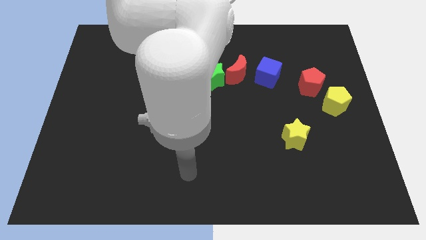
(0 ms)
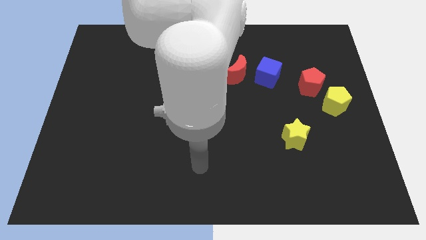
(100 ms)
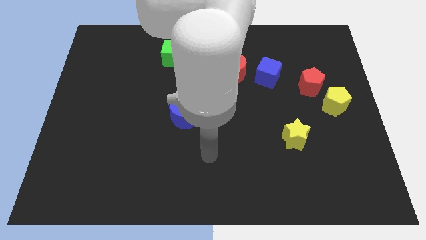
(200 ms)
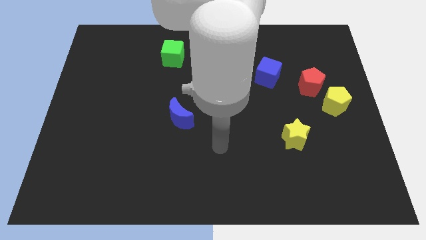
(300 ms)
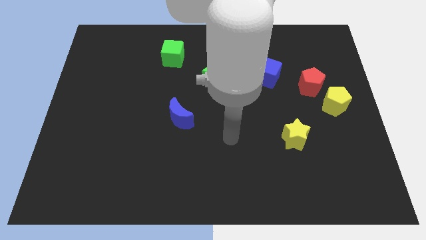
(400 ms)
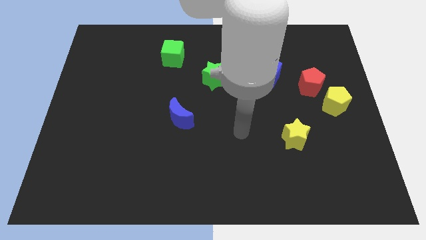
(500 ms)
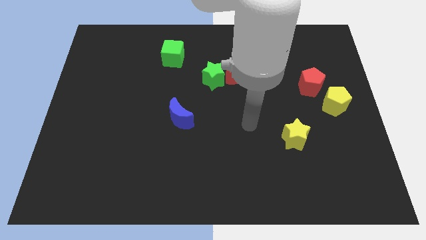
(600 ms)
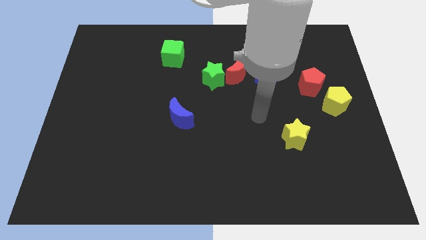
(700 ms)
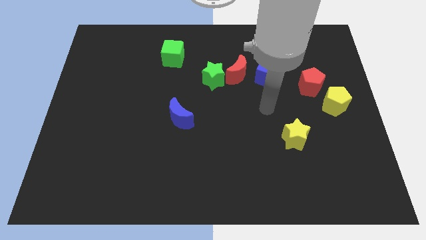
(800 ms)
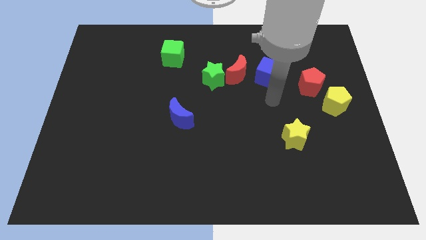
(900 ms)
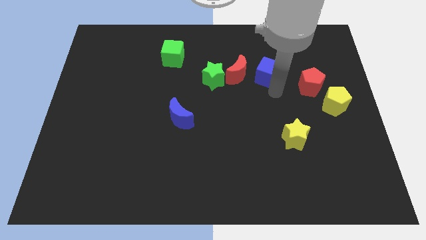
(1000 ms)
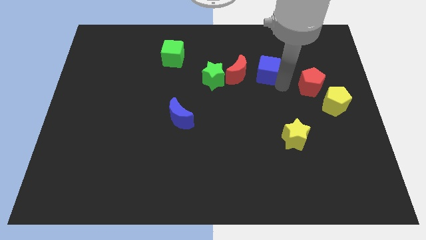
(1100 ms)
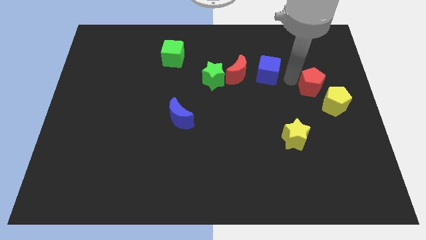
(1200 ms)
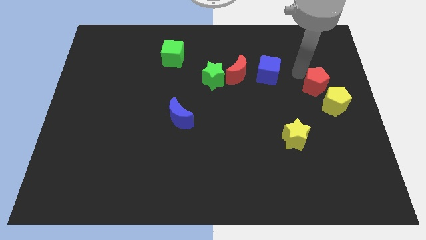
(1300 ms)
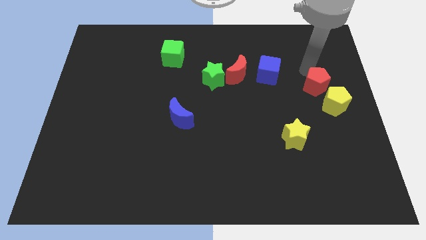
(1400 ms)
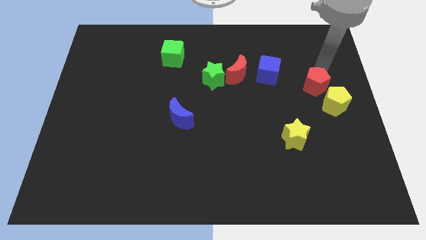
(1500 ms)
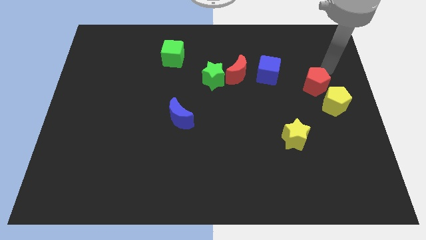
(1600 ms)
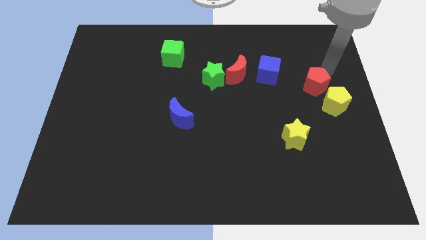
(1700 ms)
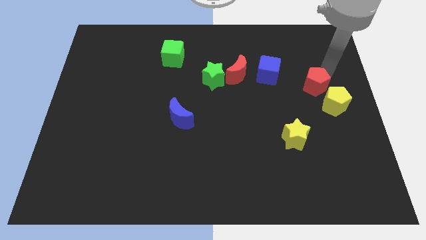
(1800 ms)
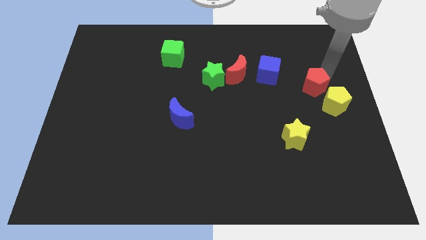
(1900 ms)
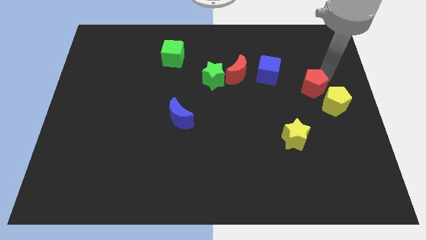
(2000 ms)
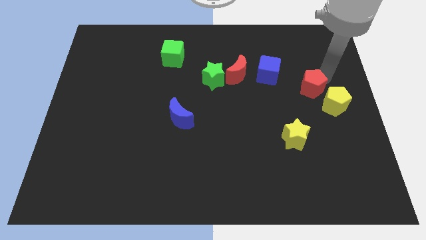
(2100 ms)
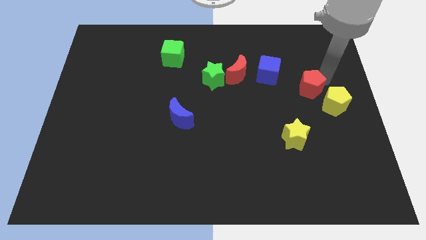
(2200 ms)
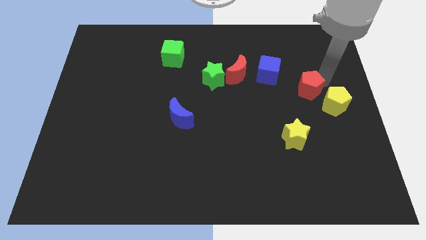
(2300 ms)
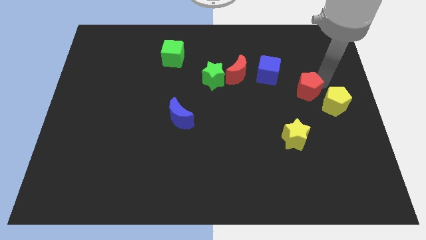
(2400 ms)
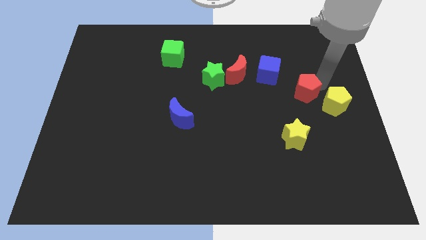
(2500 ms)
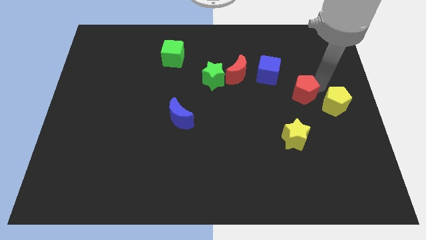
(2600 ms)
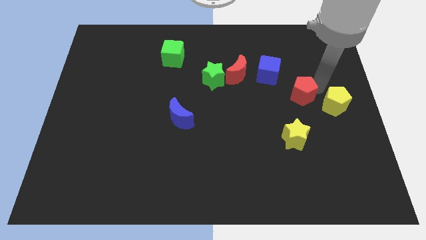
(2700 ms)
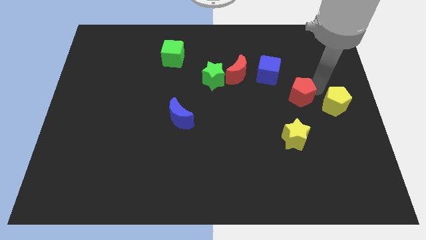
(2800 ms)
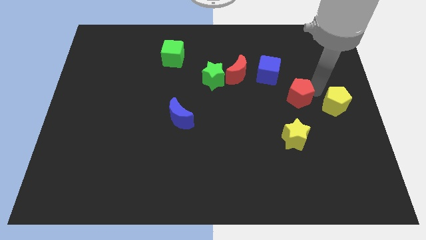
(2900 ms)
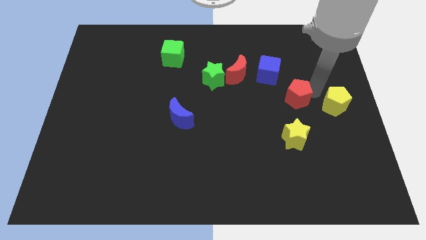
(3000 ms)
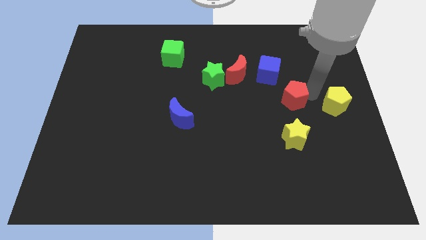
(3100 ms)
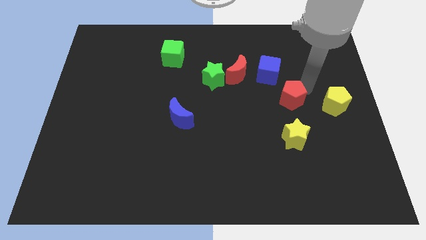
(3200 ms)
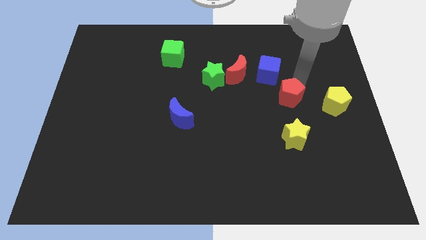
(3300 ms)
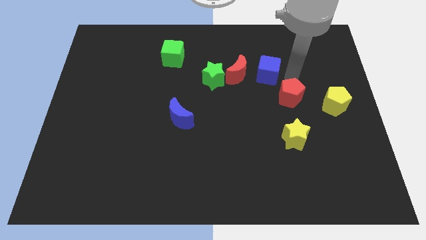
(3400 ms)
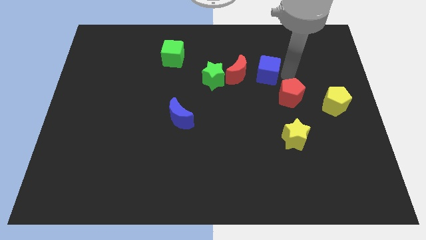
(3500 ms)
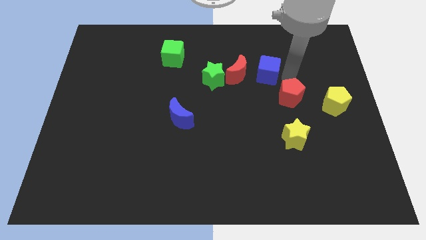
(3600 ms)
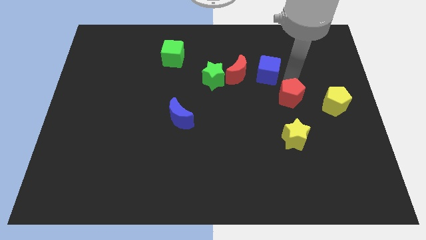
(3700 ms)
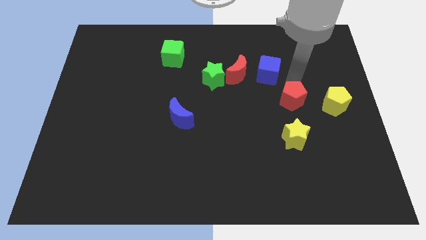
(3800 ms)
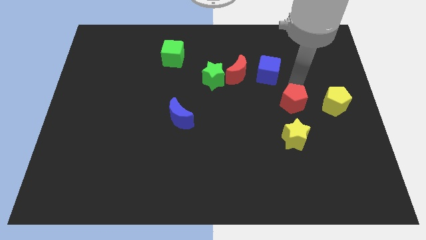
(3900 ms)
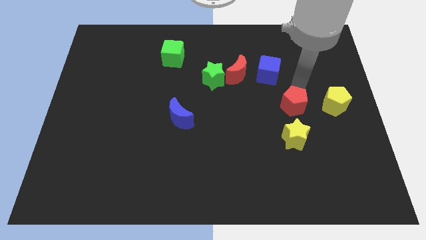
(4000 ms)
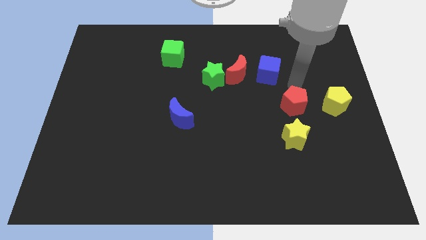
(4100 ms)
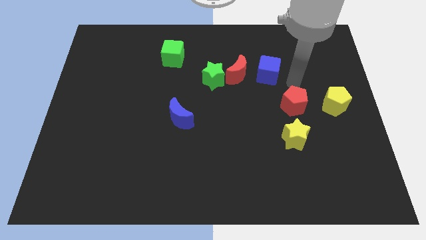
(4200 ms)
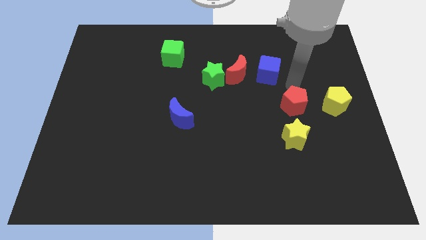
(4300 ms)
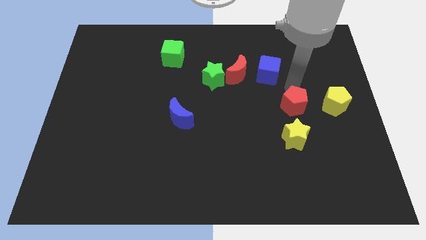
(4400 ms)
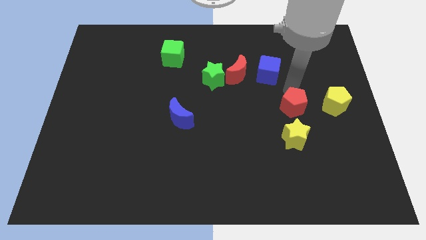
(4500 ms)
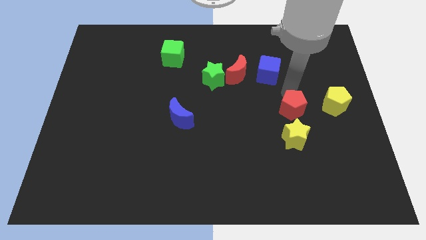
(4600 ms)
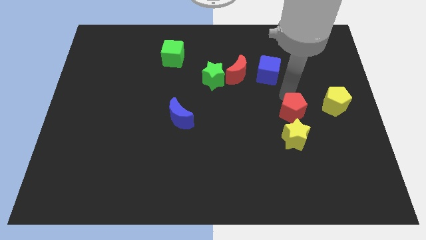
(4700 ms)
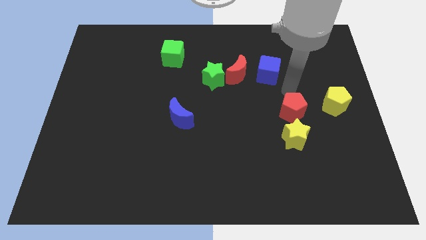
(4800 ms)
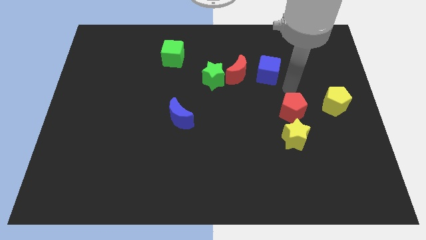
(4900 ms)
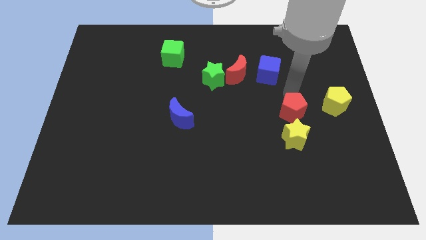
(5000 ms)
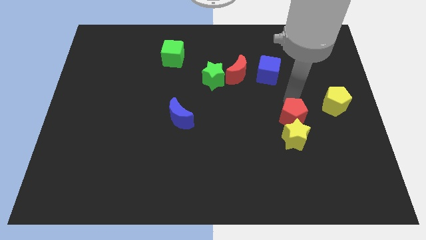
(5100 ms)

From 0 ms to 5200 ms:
move the red pentagon to the yellow star

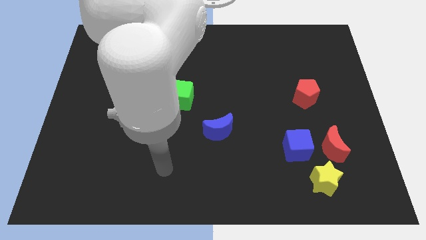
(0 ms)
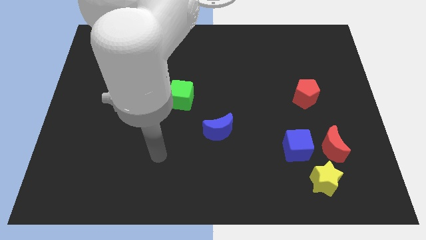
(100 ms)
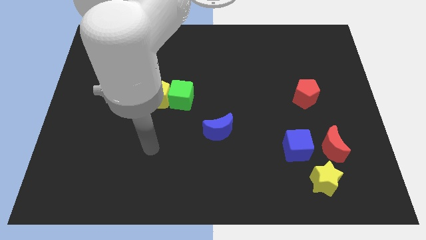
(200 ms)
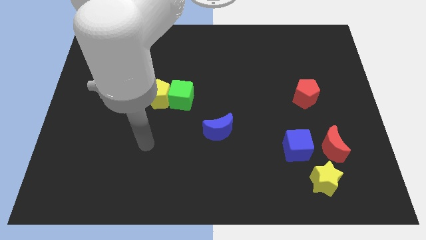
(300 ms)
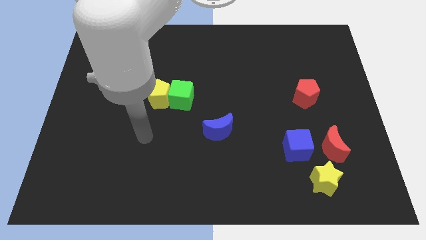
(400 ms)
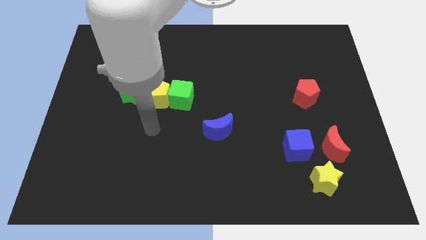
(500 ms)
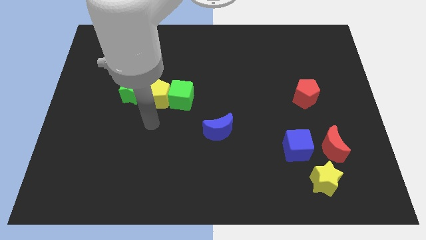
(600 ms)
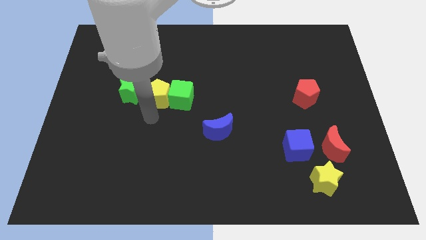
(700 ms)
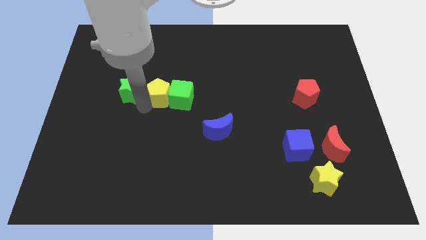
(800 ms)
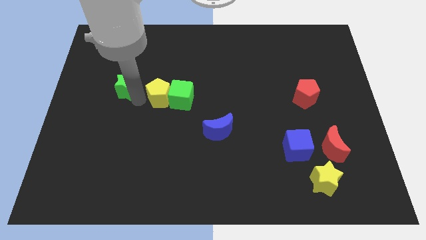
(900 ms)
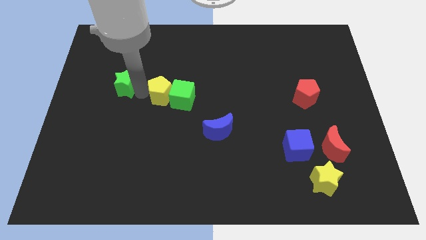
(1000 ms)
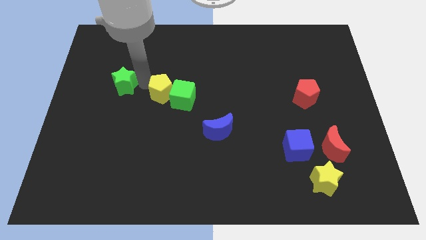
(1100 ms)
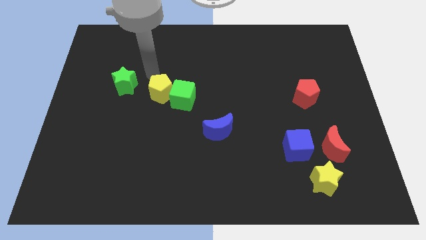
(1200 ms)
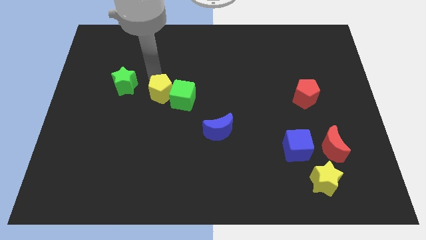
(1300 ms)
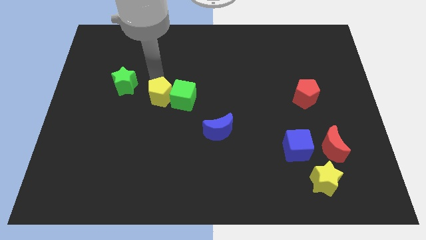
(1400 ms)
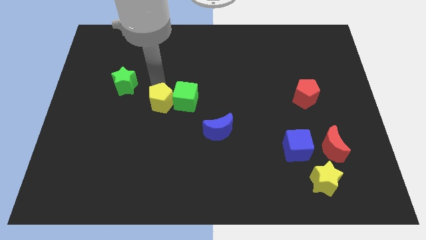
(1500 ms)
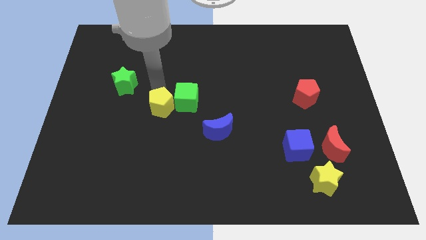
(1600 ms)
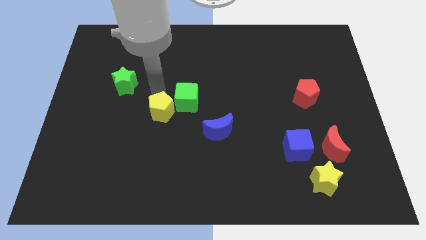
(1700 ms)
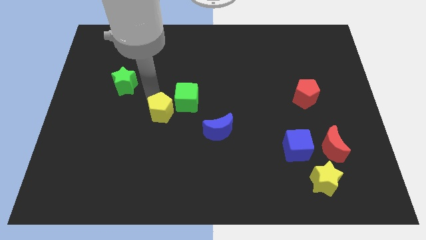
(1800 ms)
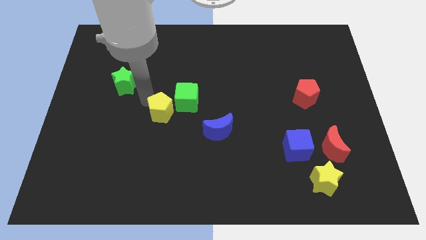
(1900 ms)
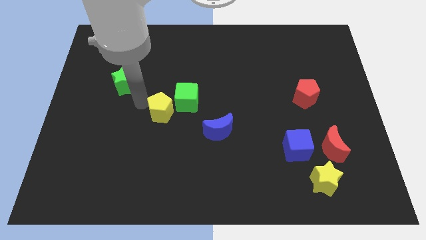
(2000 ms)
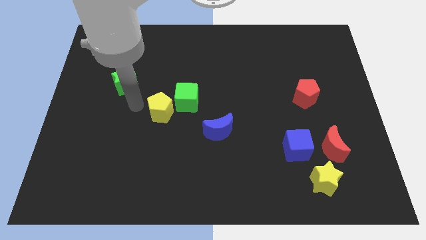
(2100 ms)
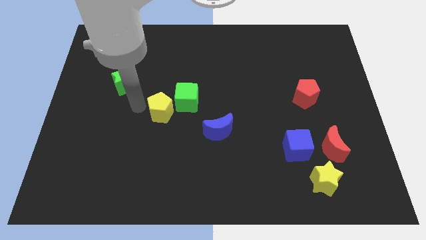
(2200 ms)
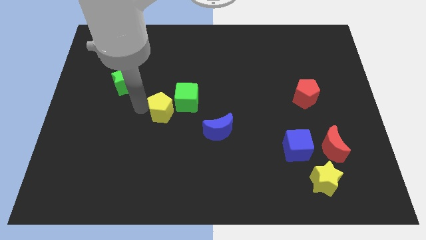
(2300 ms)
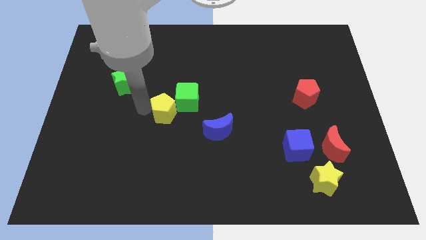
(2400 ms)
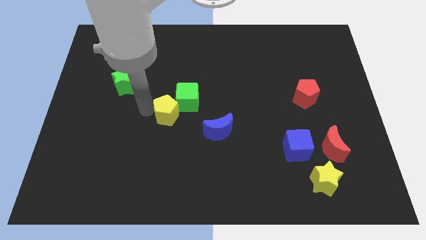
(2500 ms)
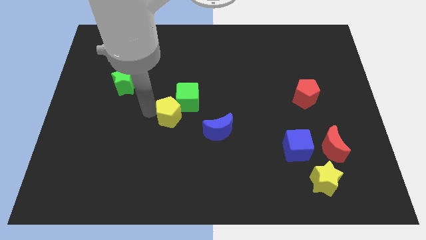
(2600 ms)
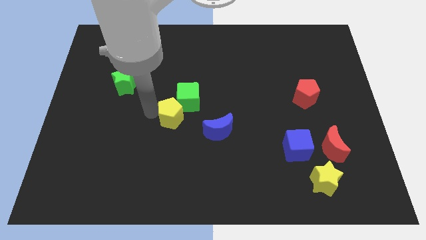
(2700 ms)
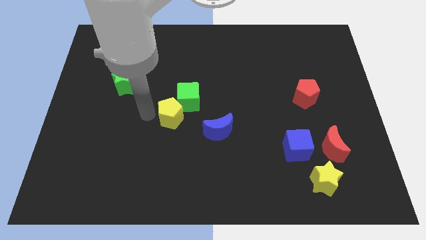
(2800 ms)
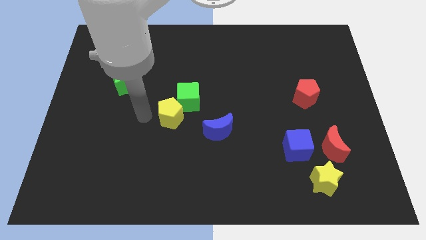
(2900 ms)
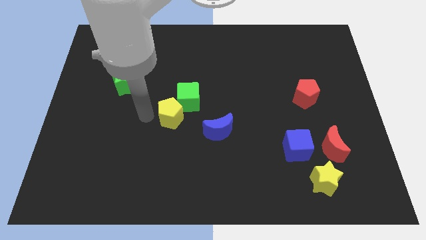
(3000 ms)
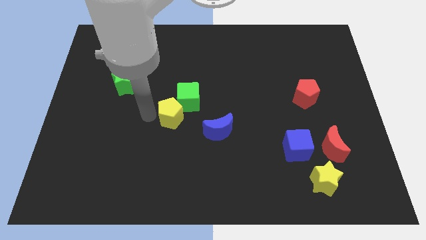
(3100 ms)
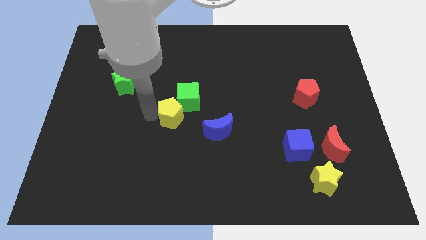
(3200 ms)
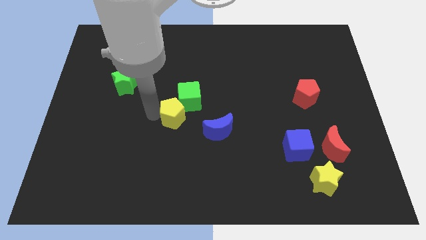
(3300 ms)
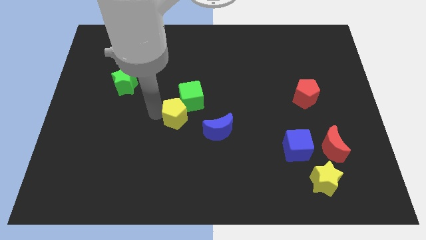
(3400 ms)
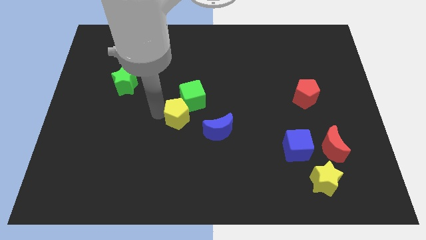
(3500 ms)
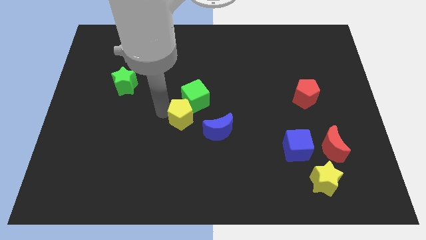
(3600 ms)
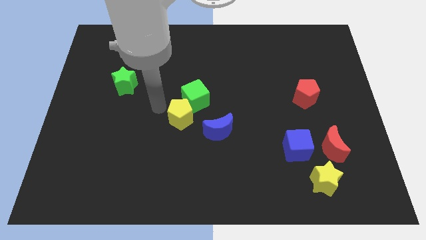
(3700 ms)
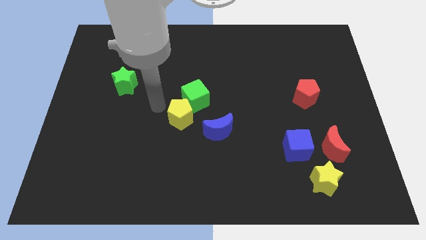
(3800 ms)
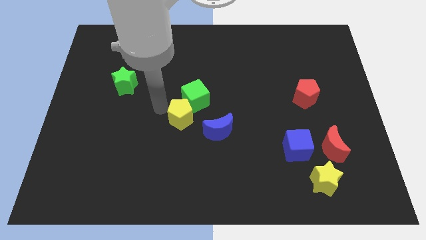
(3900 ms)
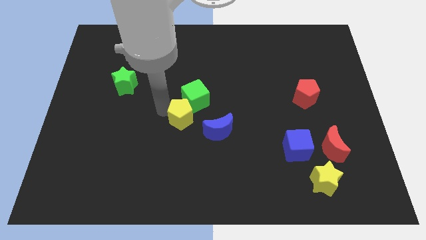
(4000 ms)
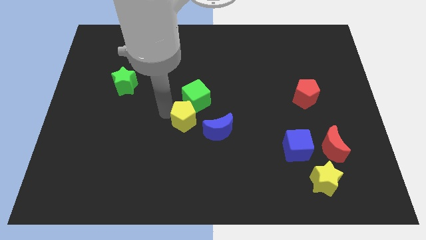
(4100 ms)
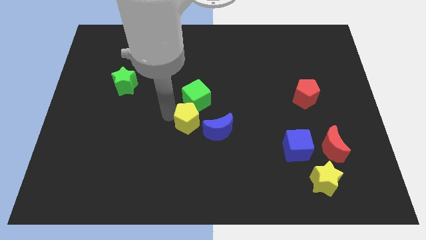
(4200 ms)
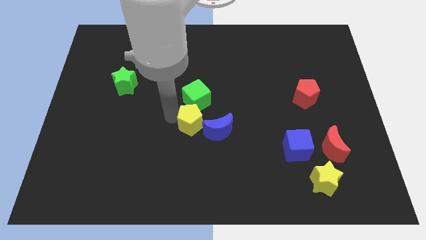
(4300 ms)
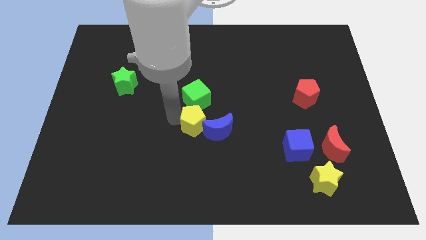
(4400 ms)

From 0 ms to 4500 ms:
push the yellow pentagon close to the blue moon
